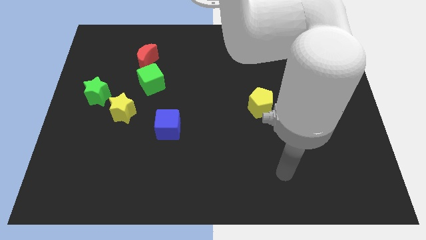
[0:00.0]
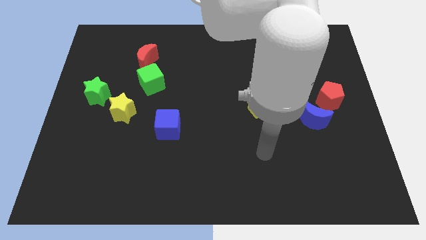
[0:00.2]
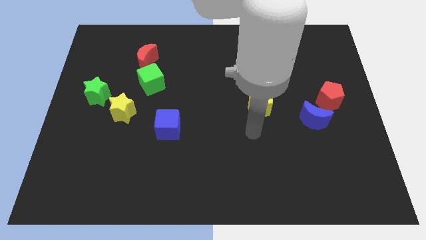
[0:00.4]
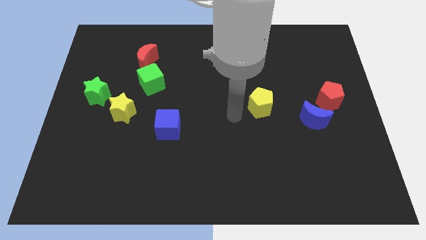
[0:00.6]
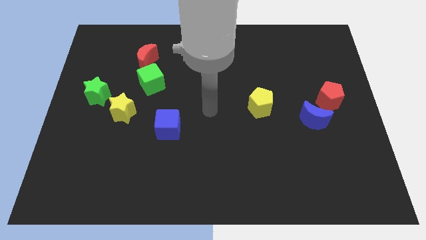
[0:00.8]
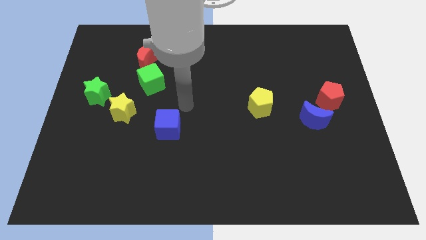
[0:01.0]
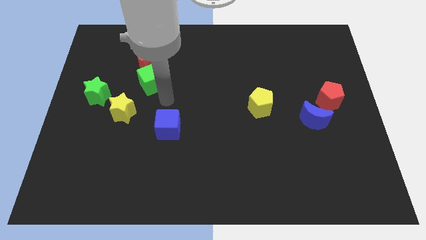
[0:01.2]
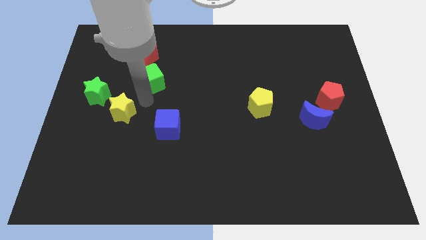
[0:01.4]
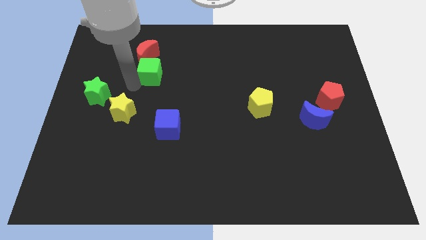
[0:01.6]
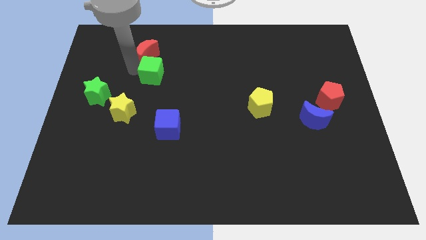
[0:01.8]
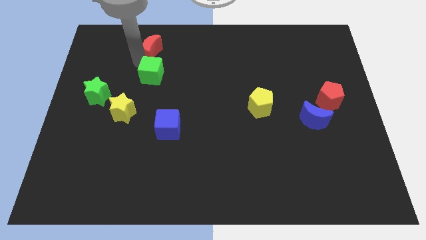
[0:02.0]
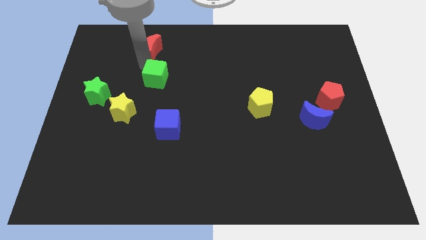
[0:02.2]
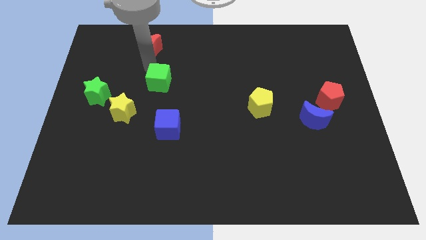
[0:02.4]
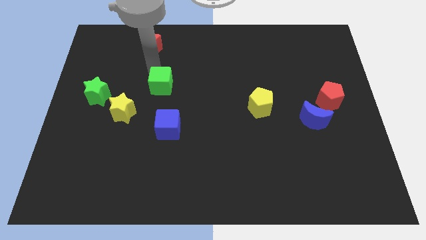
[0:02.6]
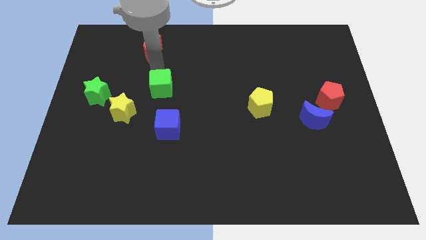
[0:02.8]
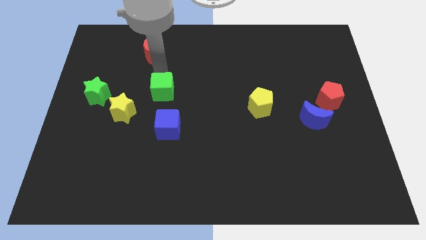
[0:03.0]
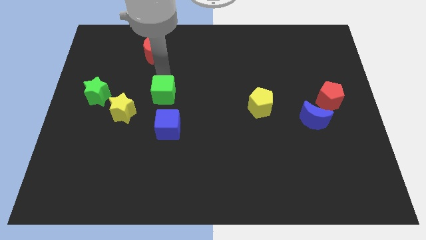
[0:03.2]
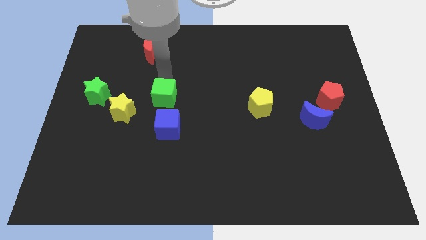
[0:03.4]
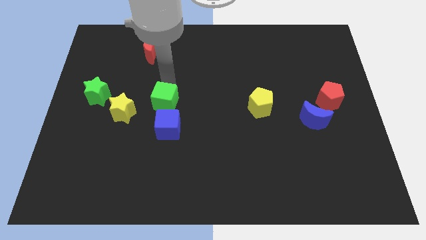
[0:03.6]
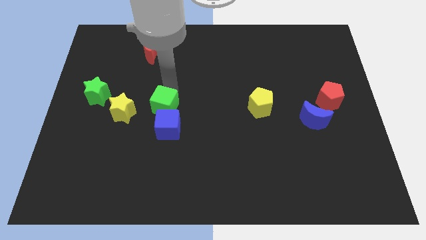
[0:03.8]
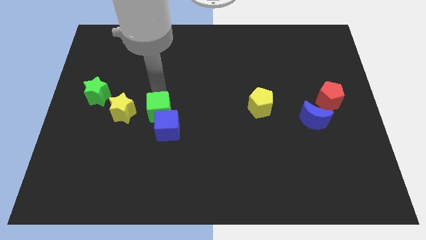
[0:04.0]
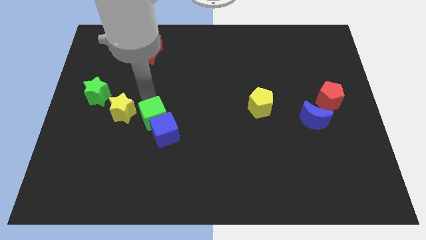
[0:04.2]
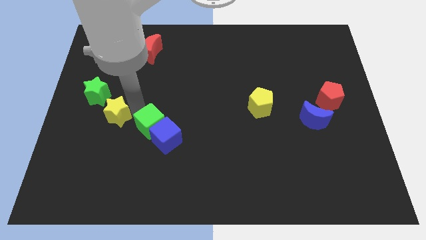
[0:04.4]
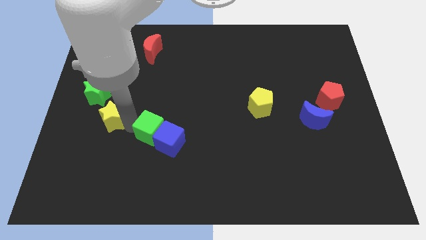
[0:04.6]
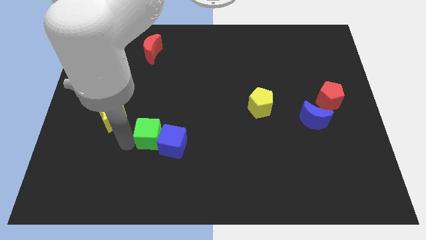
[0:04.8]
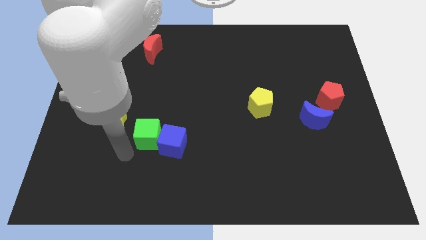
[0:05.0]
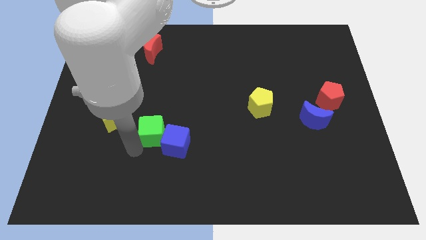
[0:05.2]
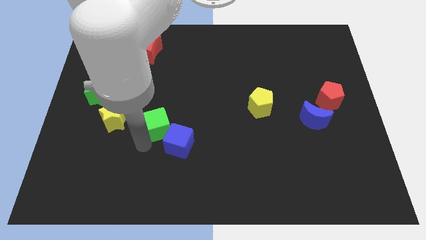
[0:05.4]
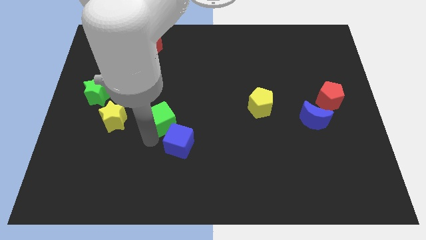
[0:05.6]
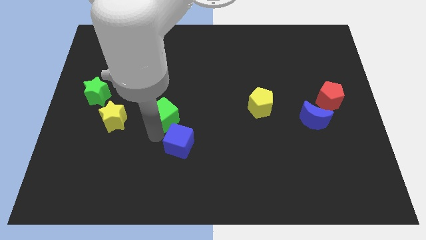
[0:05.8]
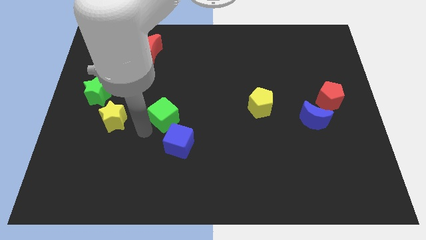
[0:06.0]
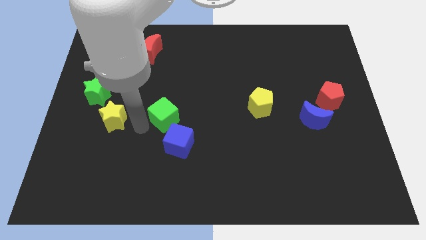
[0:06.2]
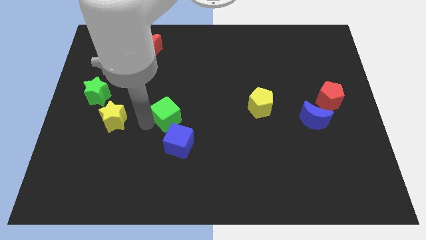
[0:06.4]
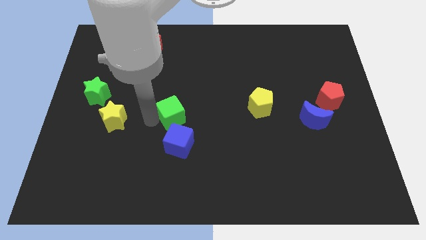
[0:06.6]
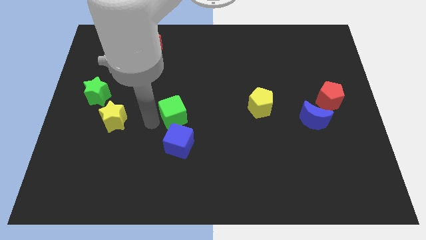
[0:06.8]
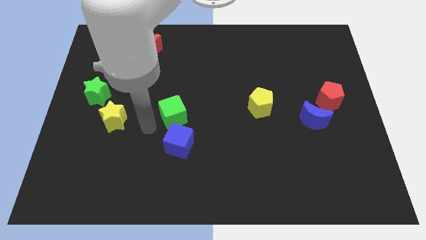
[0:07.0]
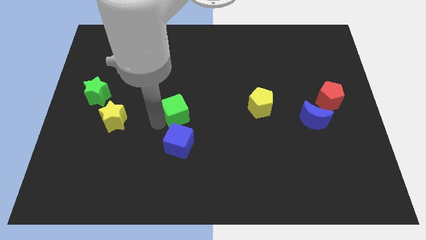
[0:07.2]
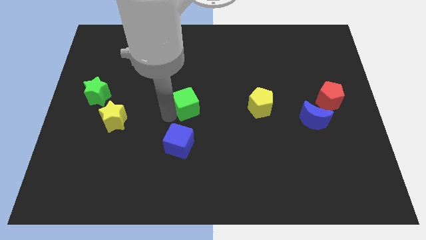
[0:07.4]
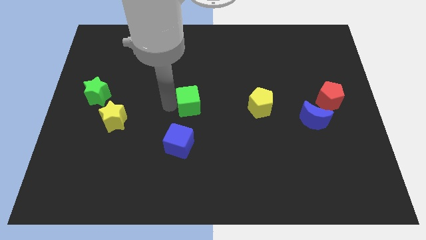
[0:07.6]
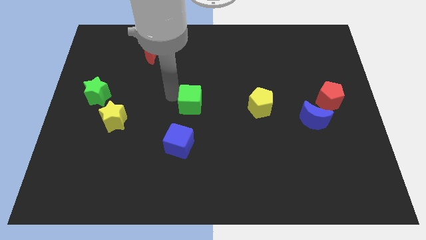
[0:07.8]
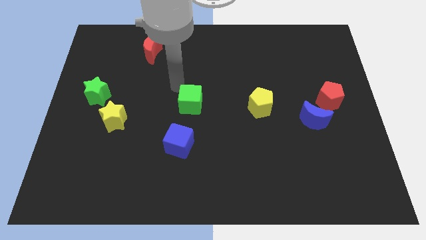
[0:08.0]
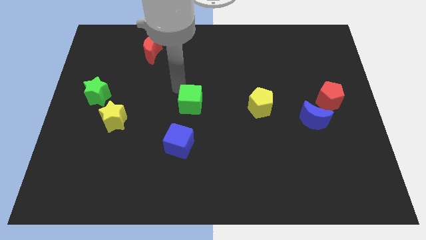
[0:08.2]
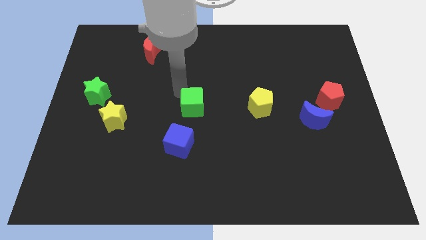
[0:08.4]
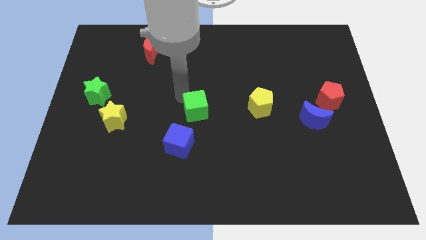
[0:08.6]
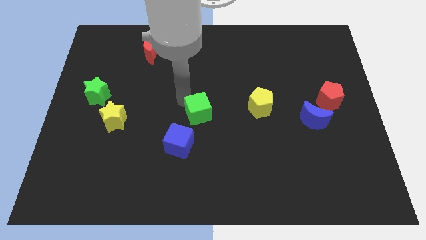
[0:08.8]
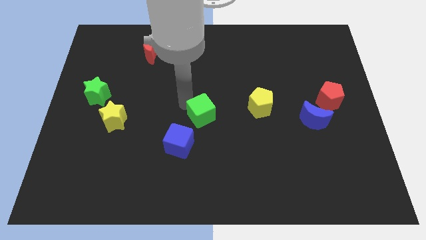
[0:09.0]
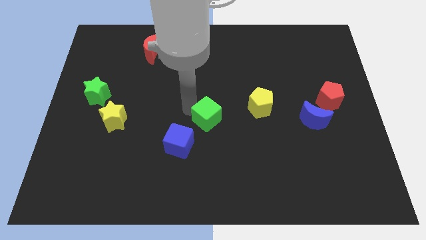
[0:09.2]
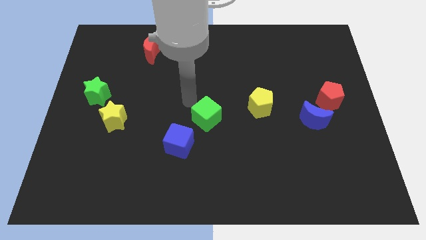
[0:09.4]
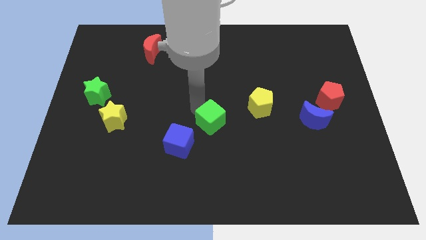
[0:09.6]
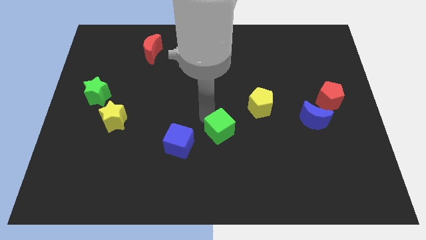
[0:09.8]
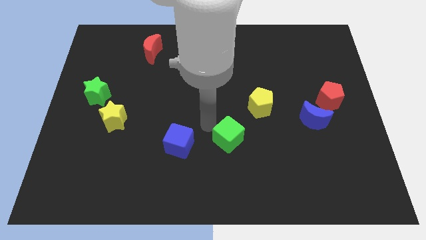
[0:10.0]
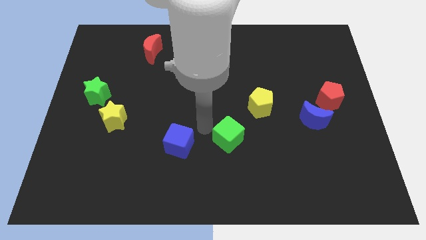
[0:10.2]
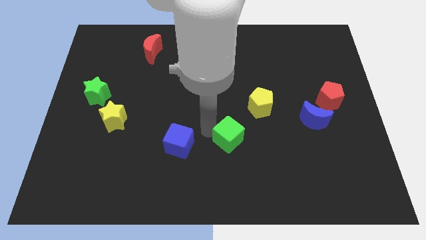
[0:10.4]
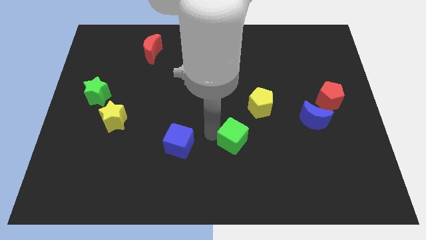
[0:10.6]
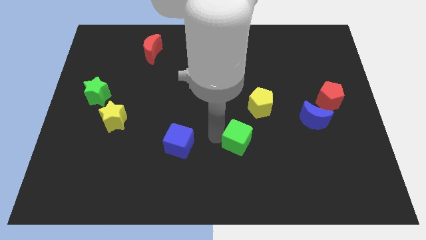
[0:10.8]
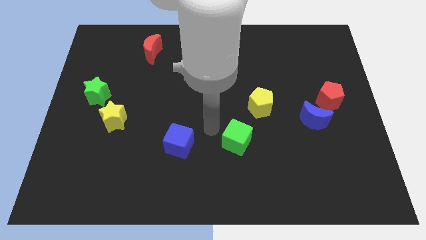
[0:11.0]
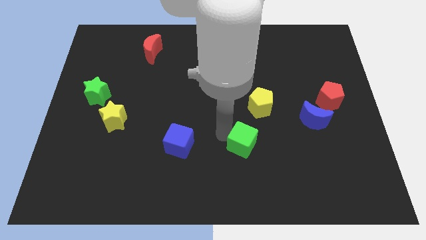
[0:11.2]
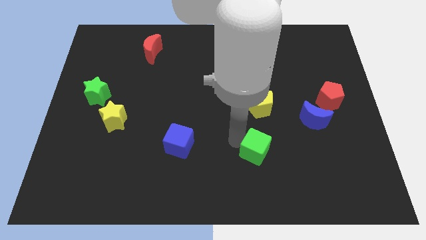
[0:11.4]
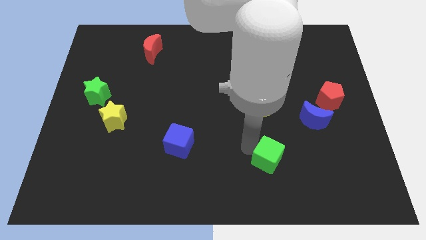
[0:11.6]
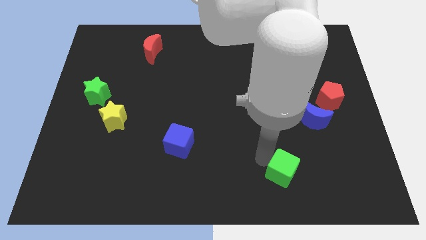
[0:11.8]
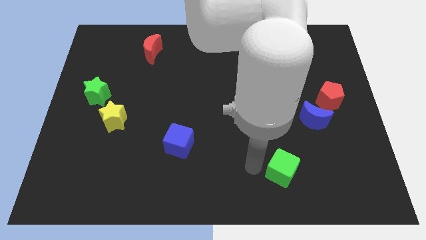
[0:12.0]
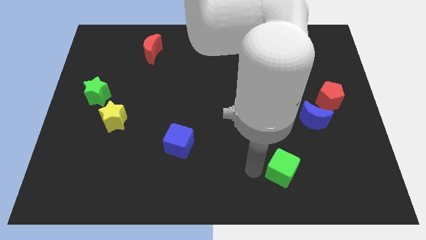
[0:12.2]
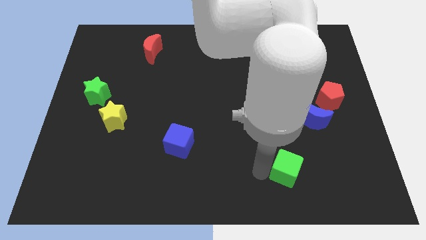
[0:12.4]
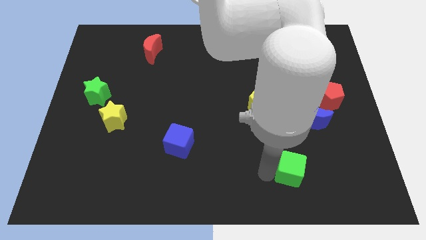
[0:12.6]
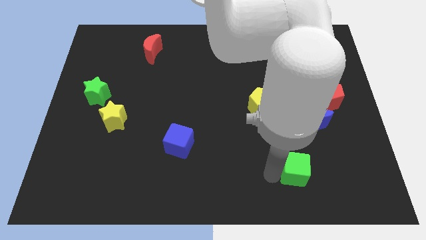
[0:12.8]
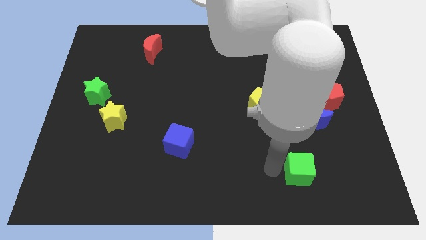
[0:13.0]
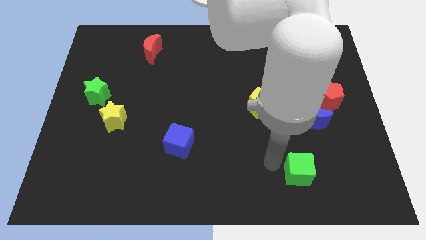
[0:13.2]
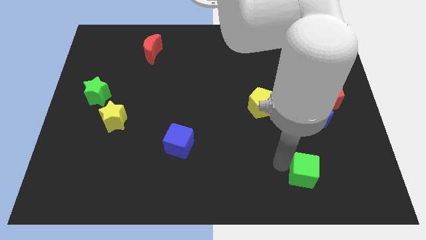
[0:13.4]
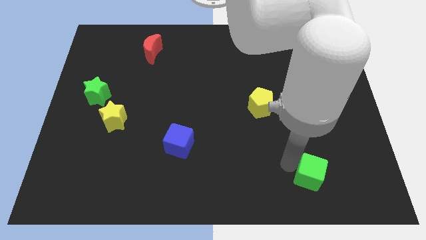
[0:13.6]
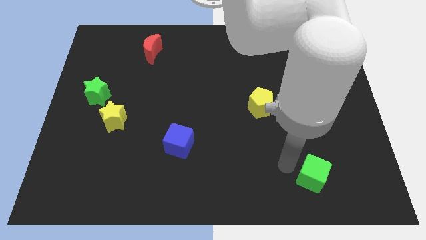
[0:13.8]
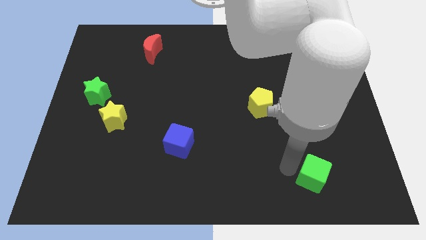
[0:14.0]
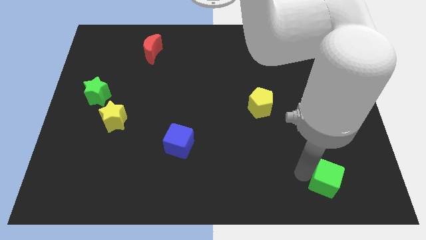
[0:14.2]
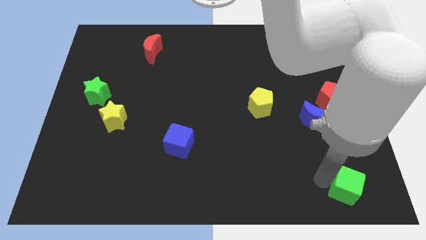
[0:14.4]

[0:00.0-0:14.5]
push the green cube to the bottom right corner
